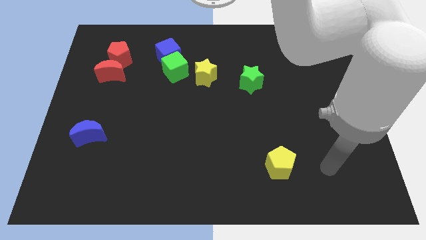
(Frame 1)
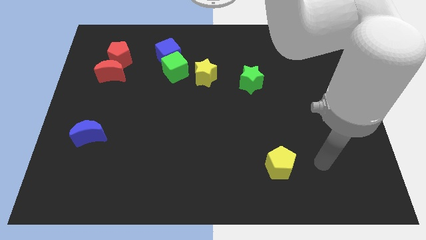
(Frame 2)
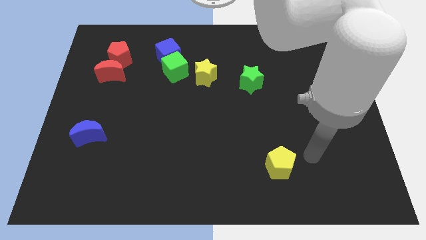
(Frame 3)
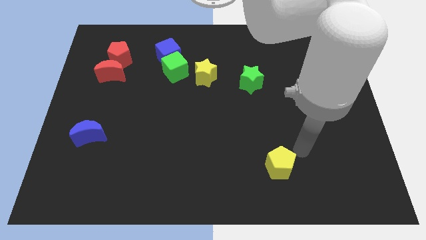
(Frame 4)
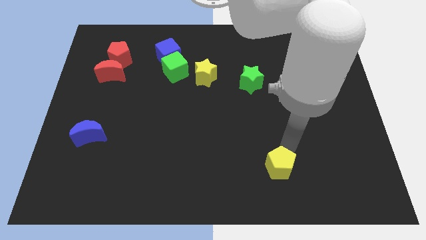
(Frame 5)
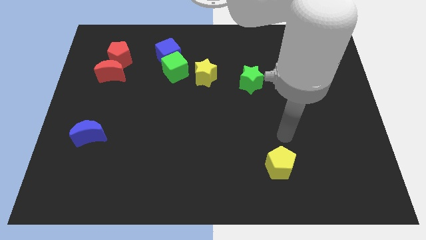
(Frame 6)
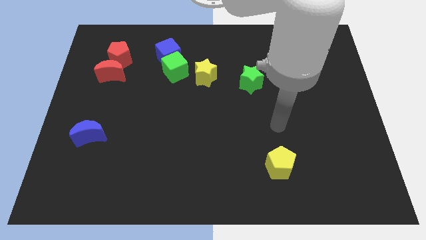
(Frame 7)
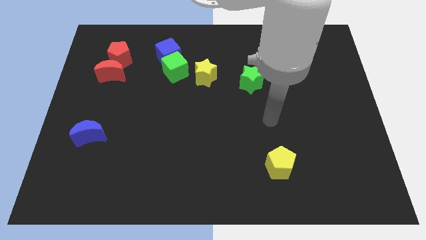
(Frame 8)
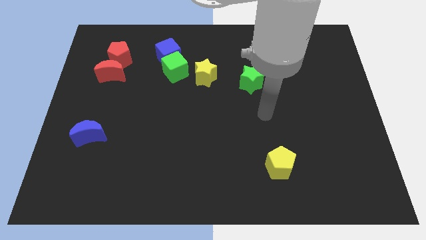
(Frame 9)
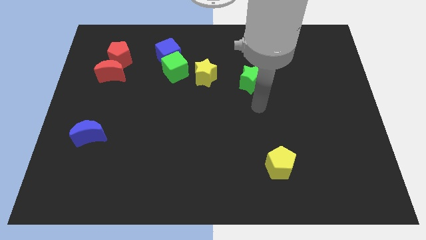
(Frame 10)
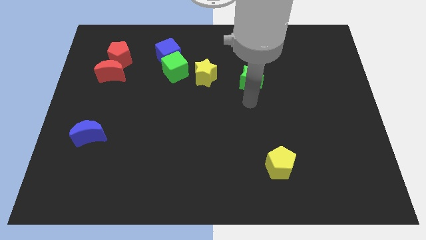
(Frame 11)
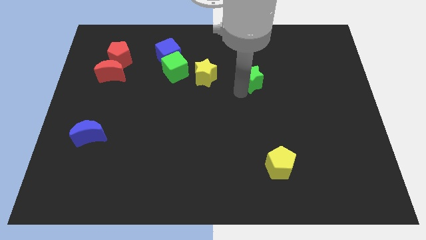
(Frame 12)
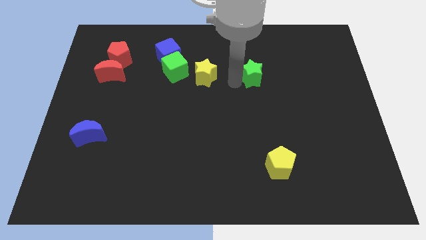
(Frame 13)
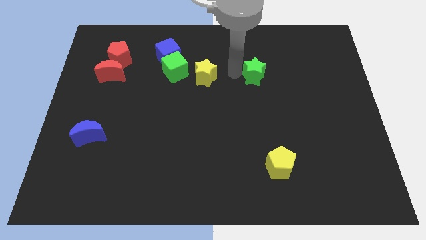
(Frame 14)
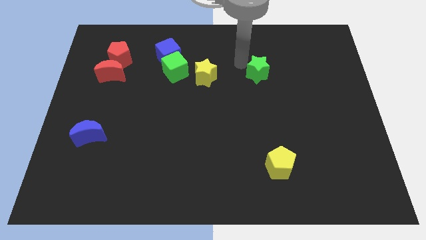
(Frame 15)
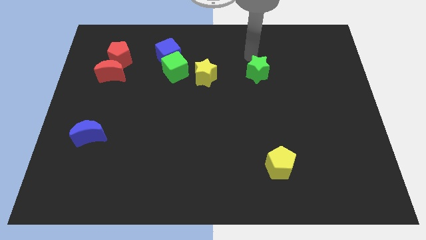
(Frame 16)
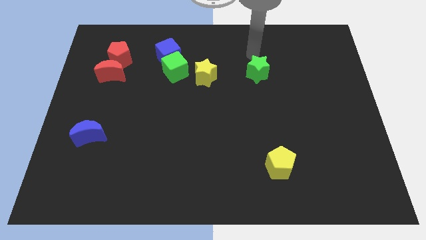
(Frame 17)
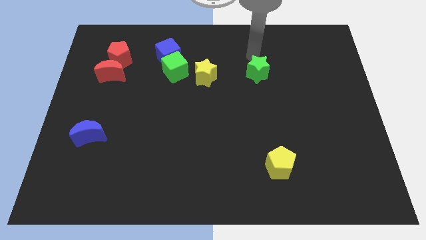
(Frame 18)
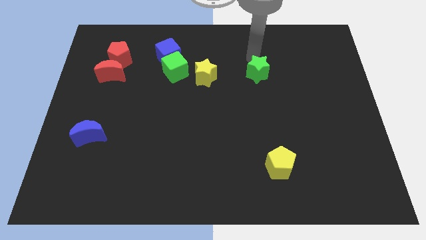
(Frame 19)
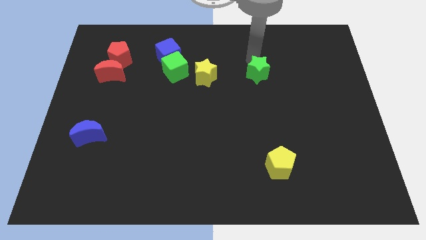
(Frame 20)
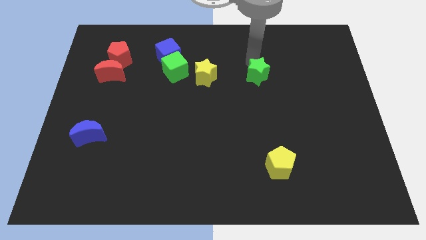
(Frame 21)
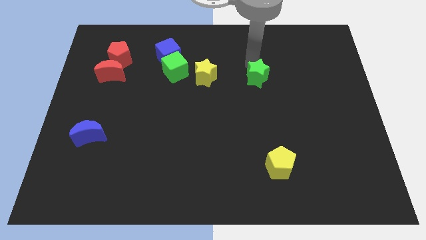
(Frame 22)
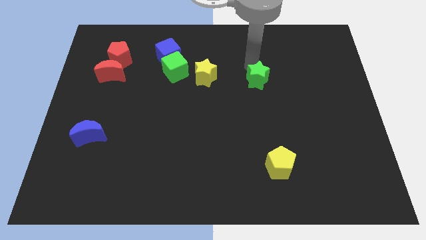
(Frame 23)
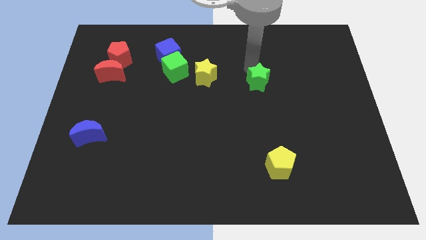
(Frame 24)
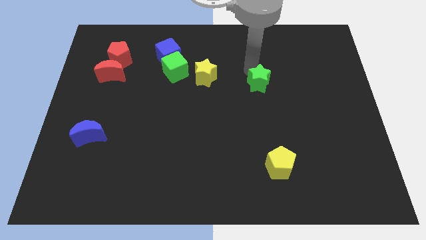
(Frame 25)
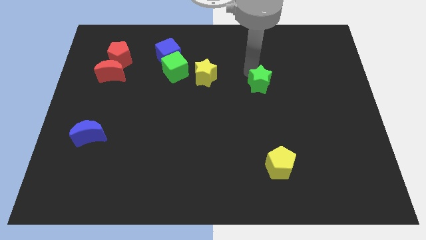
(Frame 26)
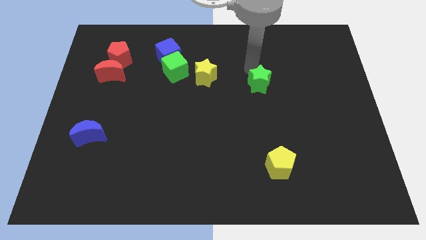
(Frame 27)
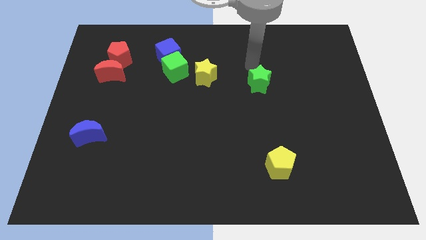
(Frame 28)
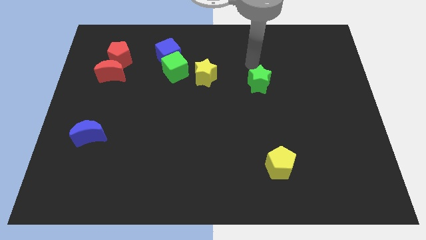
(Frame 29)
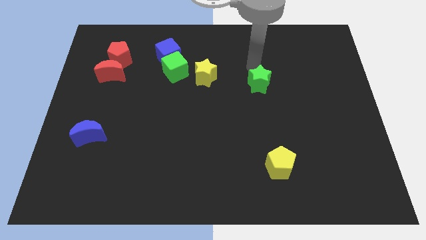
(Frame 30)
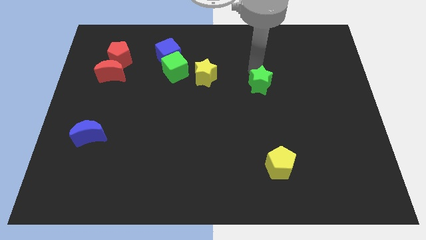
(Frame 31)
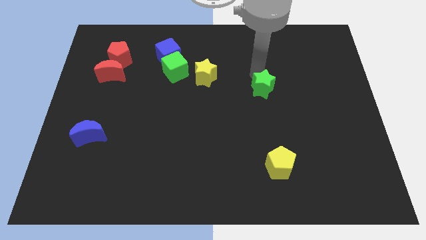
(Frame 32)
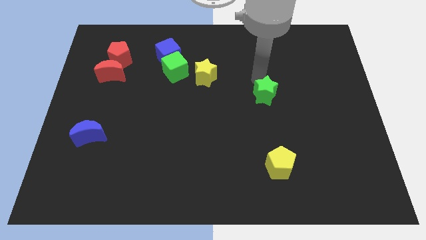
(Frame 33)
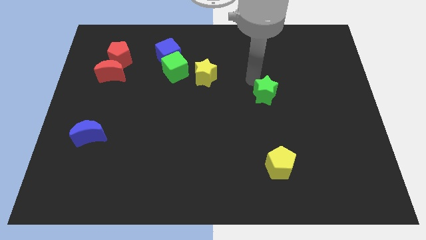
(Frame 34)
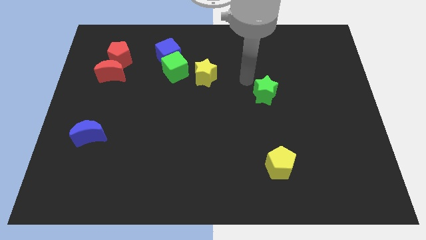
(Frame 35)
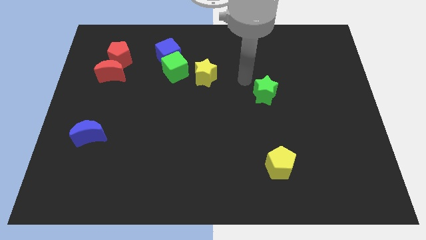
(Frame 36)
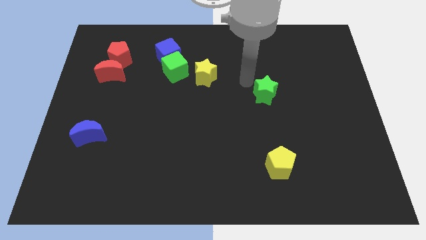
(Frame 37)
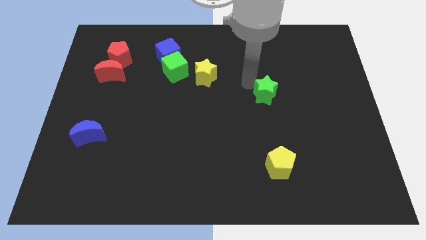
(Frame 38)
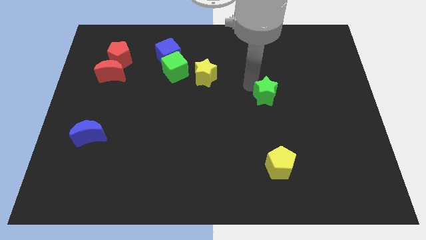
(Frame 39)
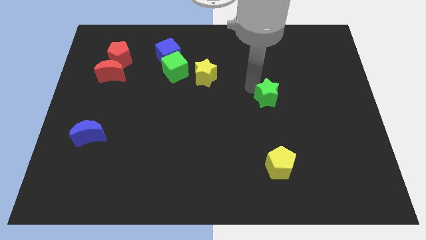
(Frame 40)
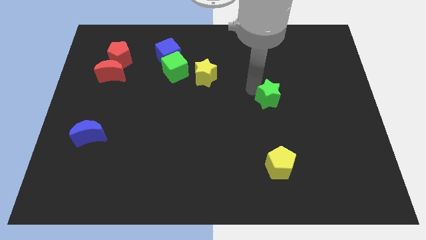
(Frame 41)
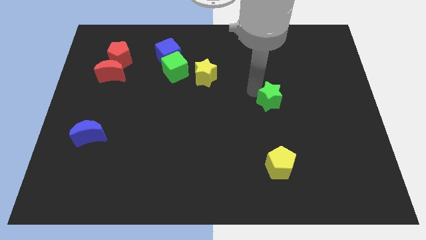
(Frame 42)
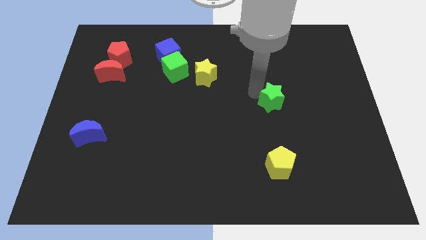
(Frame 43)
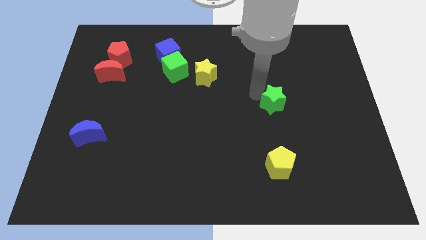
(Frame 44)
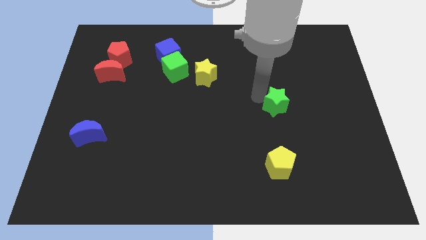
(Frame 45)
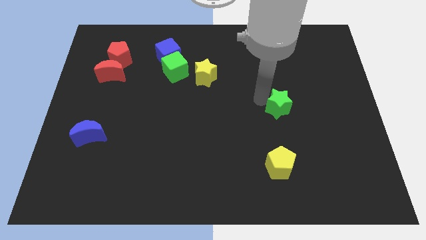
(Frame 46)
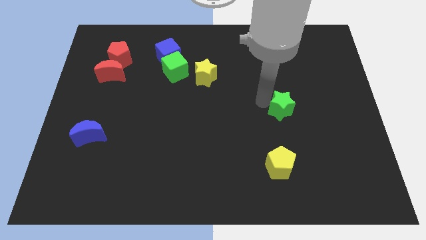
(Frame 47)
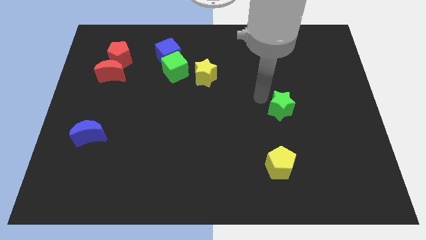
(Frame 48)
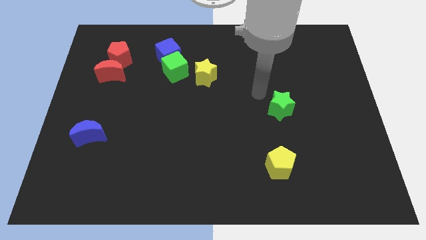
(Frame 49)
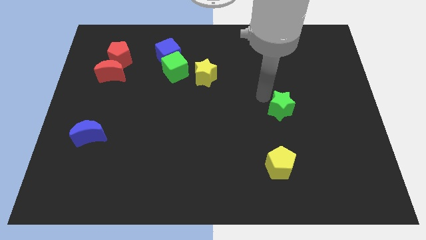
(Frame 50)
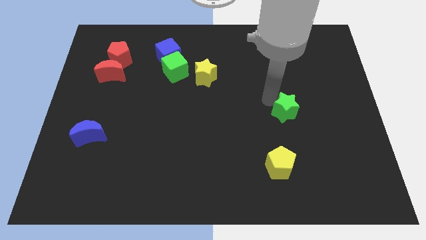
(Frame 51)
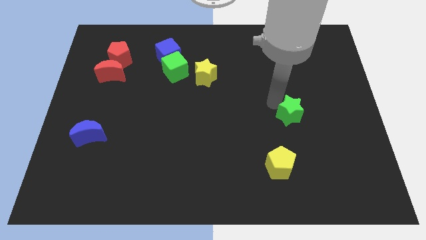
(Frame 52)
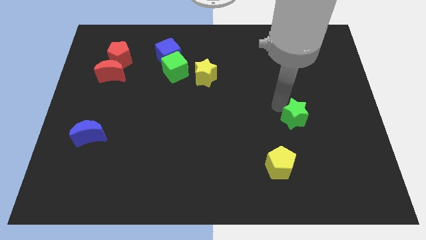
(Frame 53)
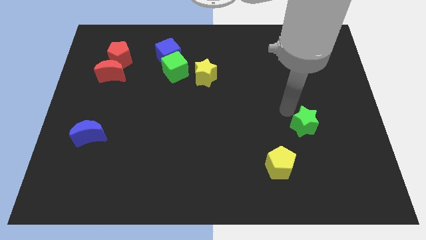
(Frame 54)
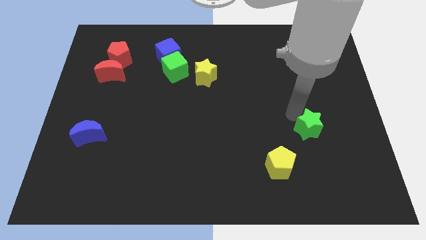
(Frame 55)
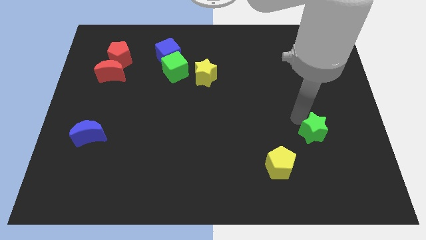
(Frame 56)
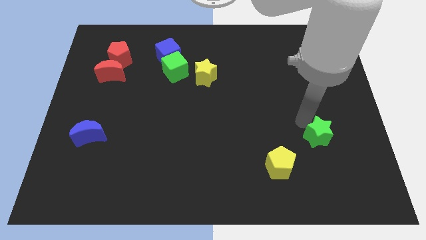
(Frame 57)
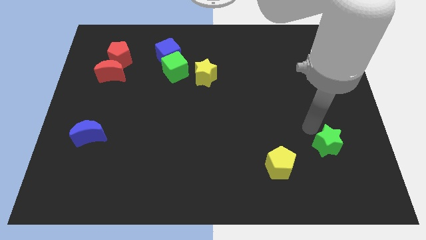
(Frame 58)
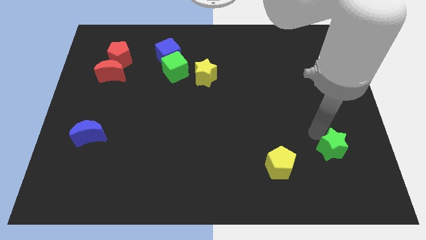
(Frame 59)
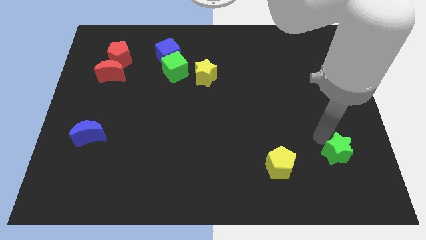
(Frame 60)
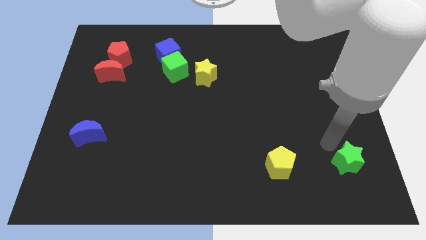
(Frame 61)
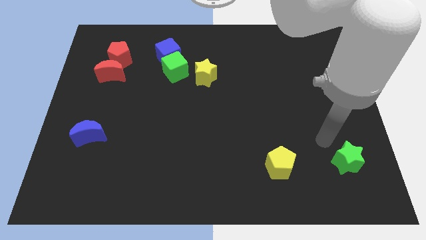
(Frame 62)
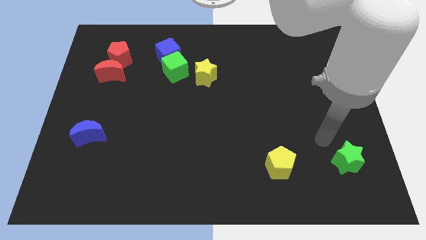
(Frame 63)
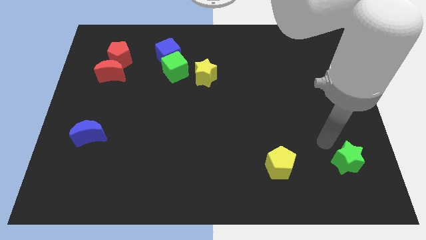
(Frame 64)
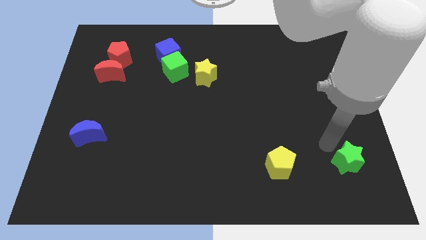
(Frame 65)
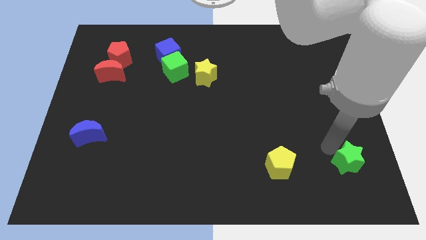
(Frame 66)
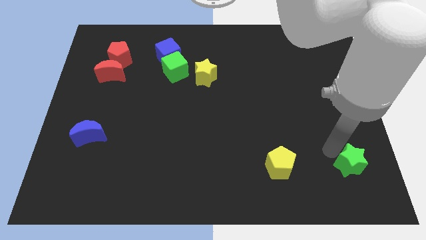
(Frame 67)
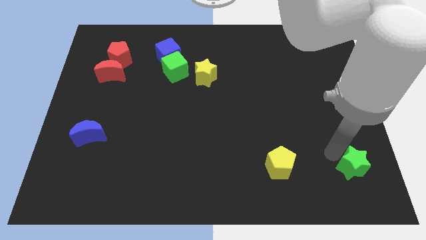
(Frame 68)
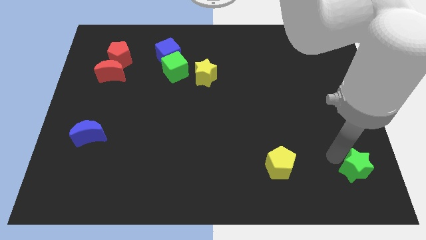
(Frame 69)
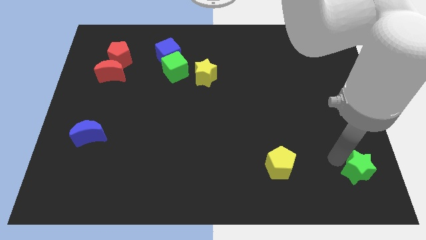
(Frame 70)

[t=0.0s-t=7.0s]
move the green star to the bottom right corner
